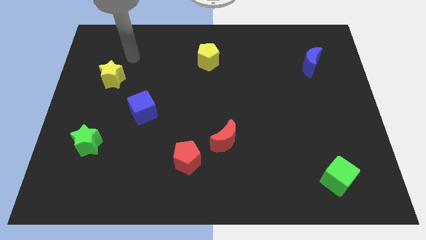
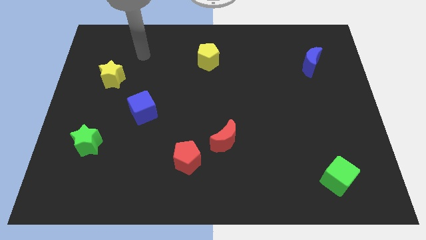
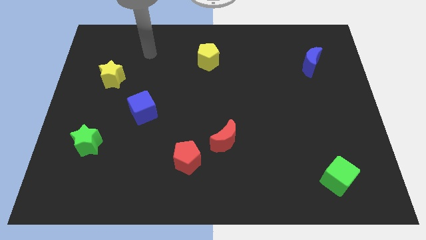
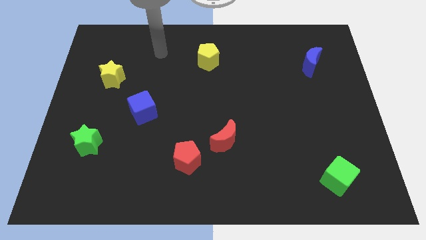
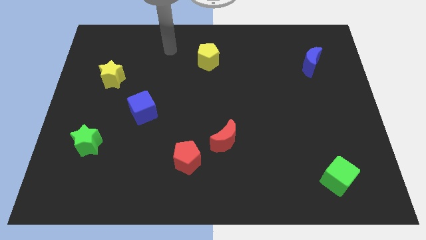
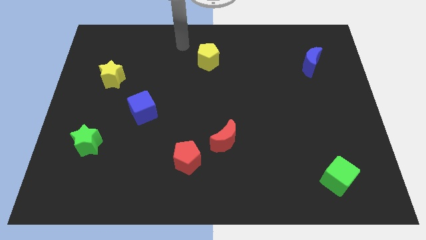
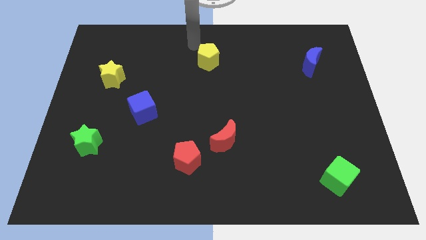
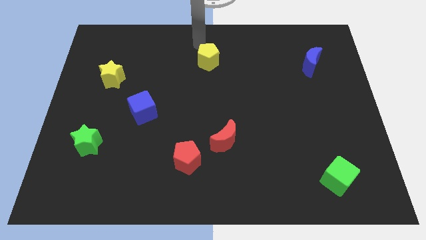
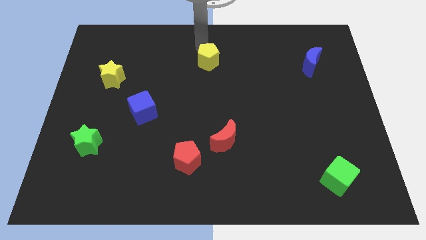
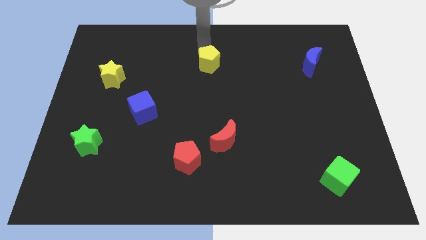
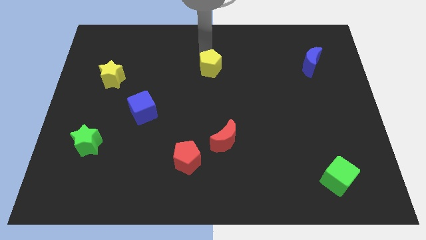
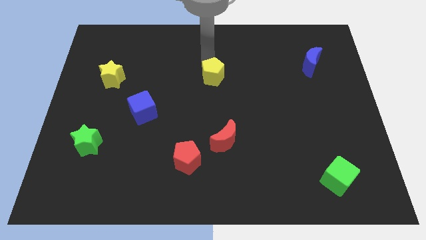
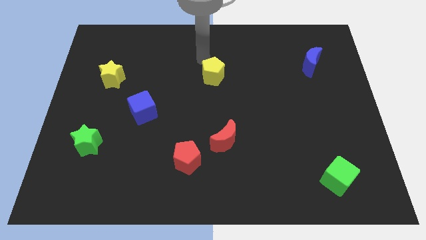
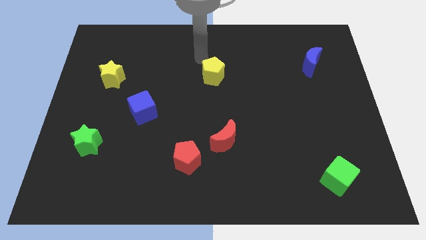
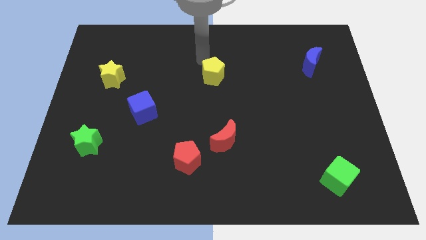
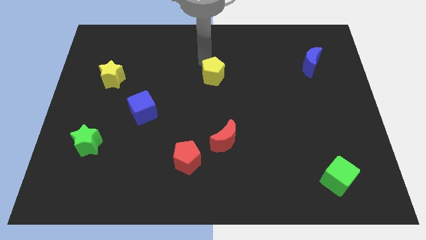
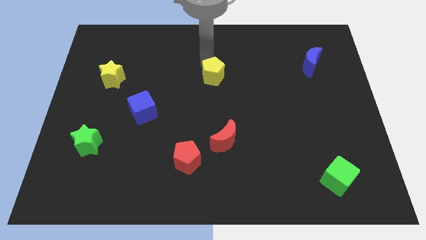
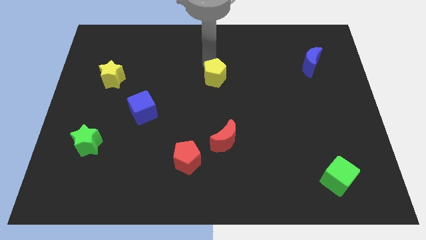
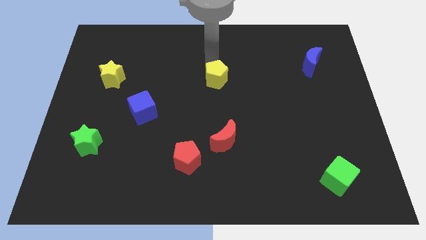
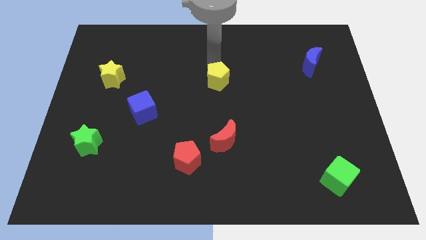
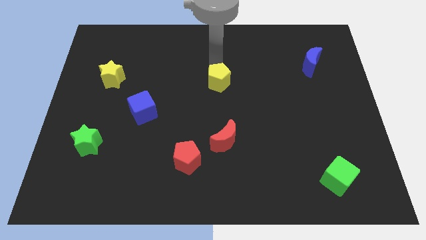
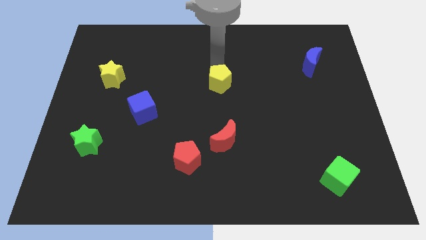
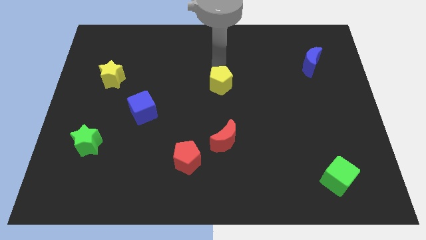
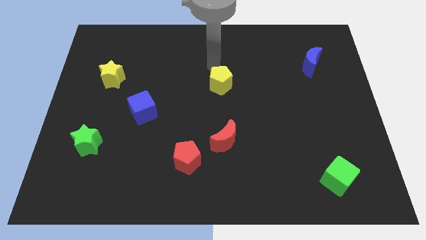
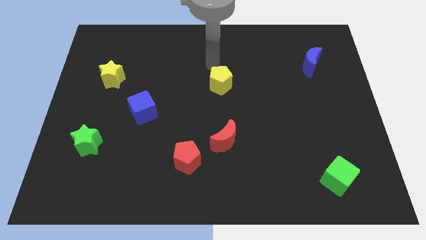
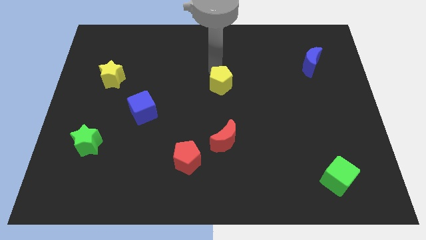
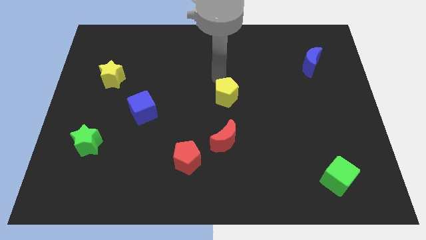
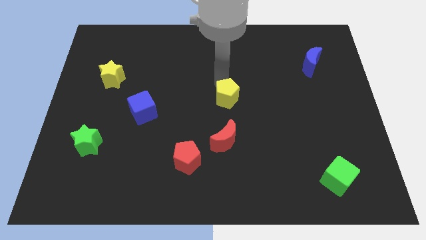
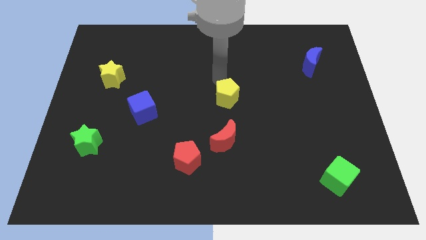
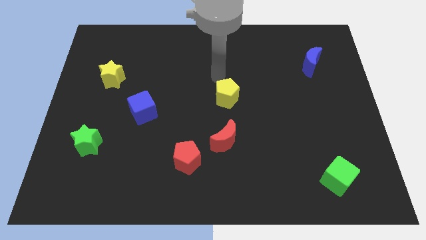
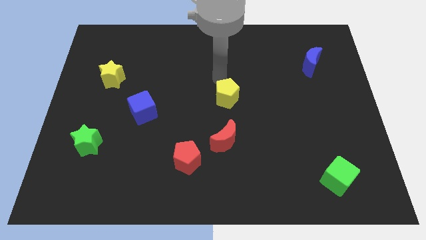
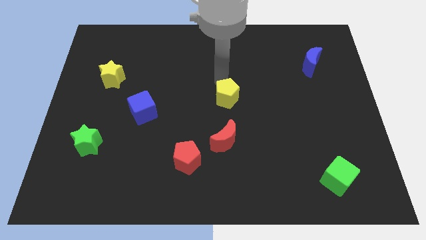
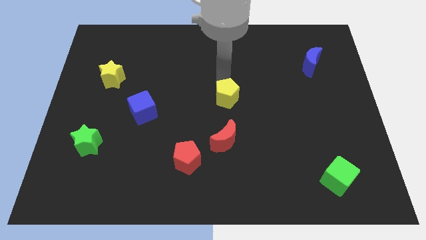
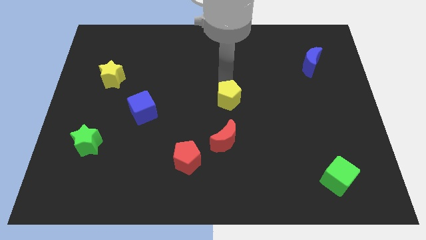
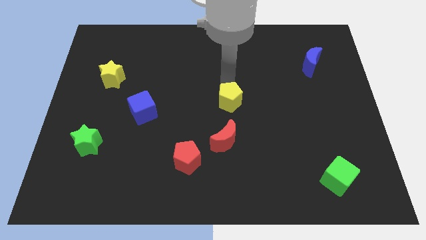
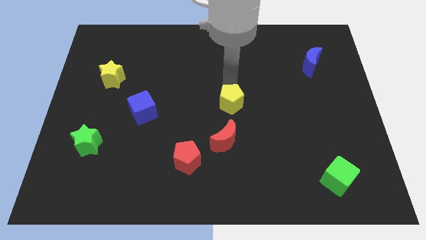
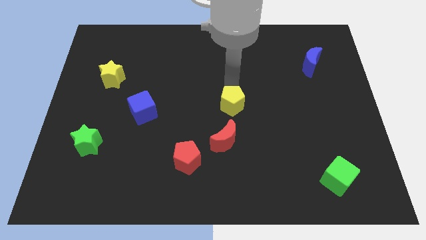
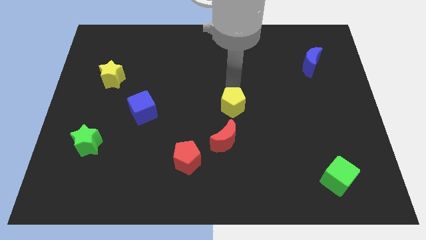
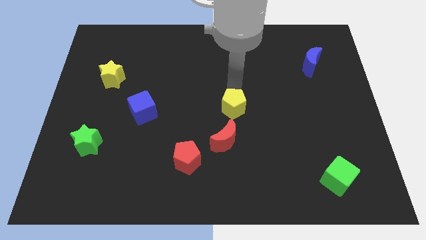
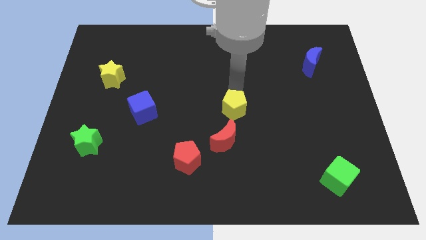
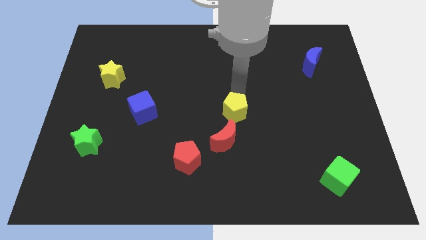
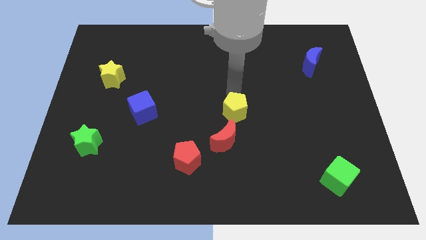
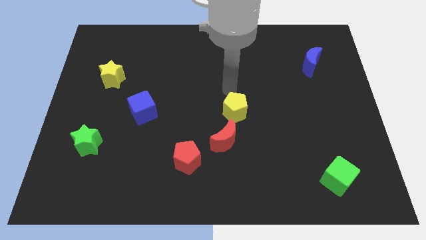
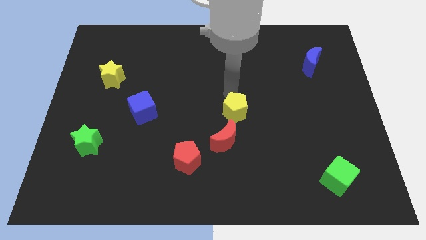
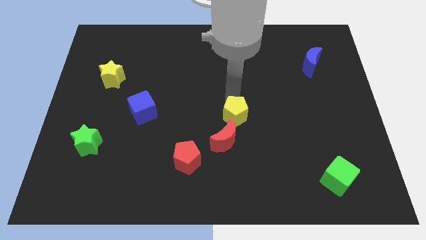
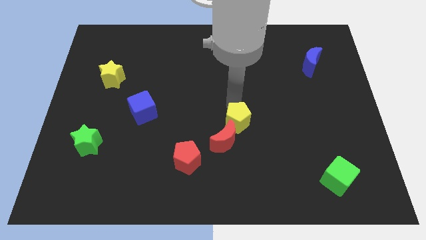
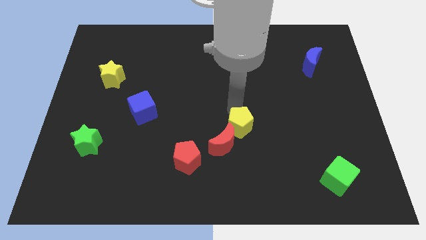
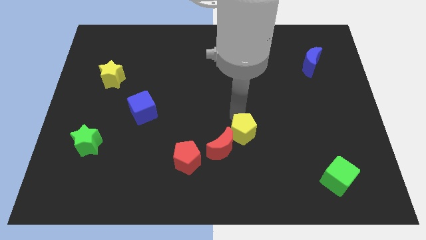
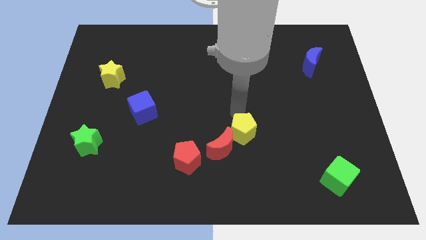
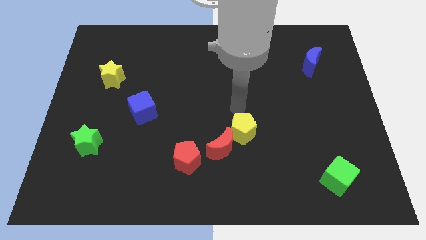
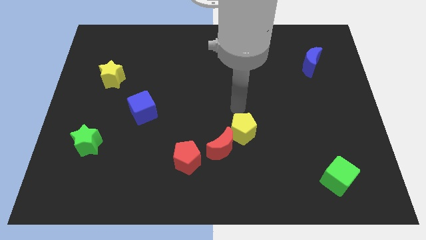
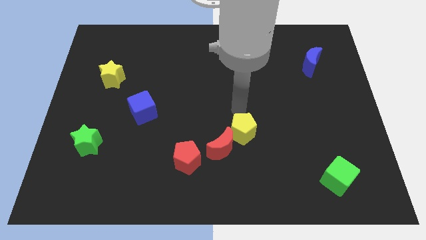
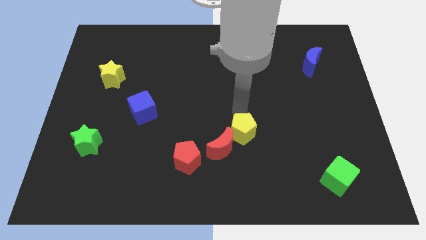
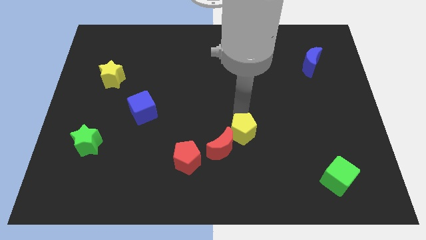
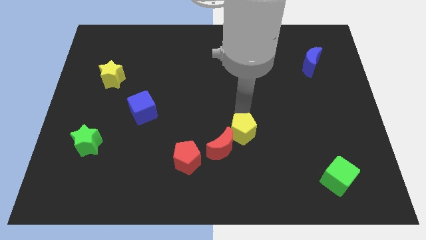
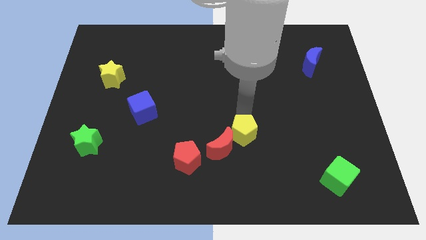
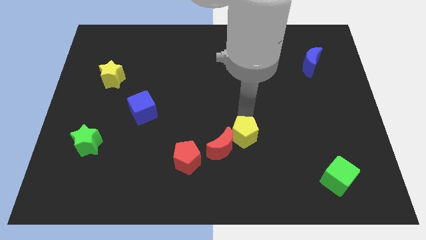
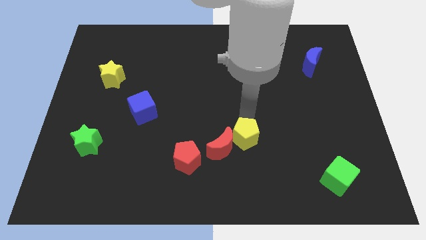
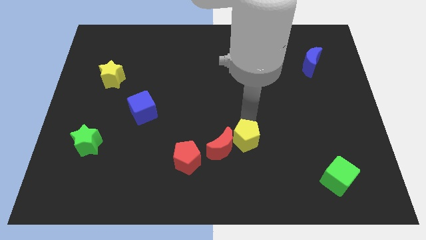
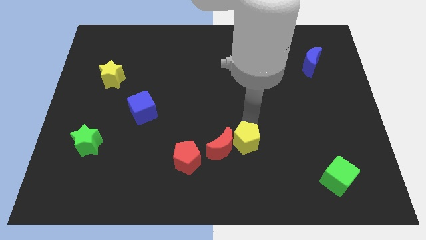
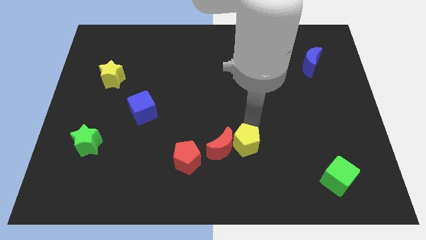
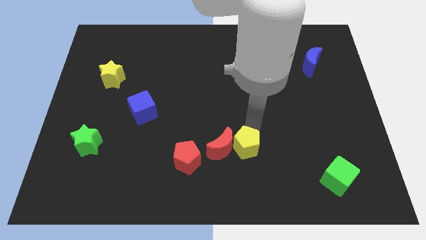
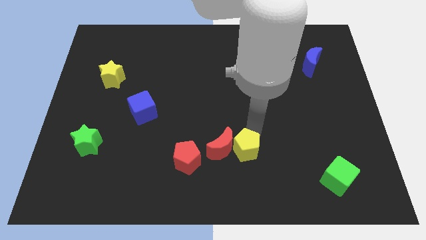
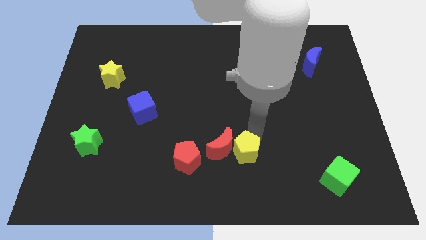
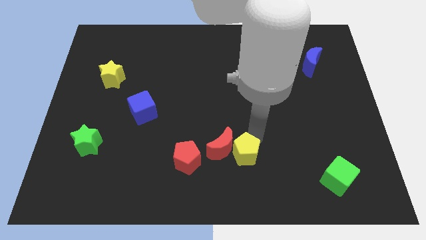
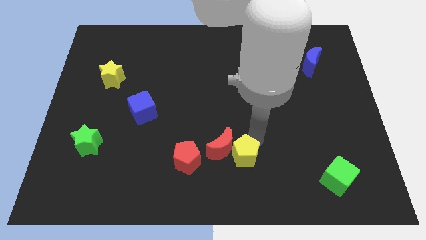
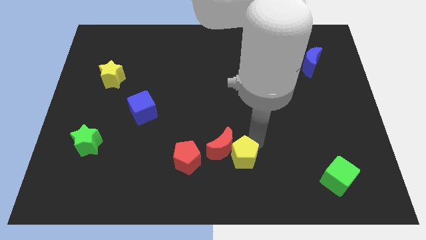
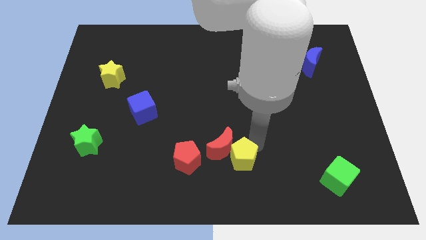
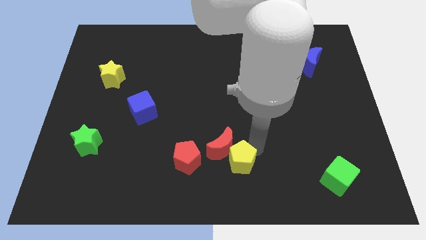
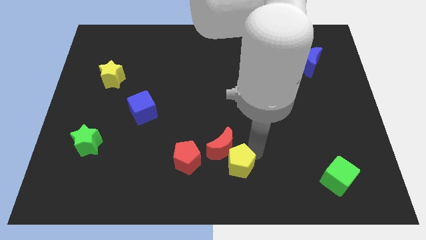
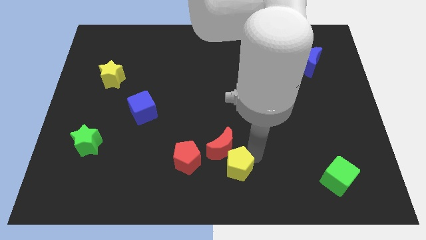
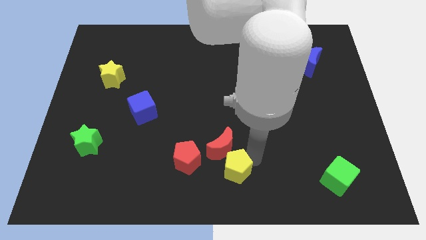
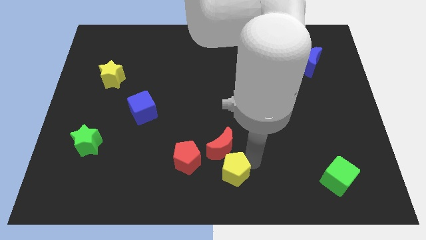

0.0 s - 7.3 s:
slide the yellow pentagon to the bottom right of the red pentagon
